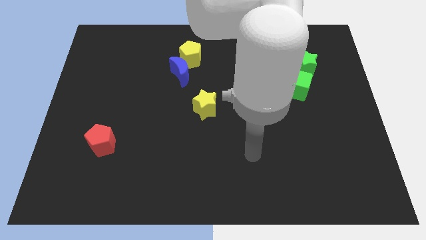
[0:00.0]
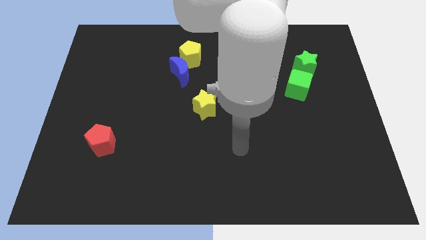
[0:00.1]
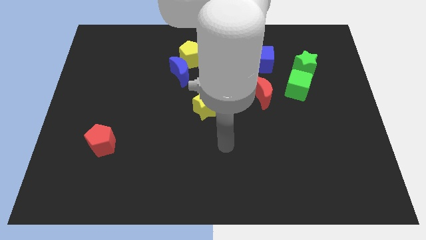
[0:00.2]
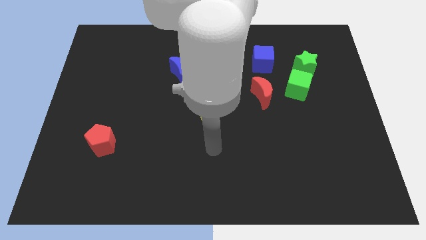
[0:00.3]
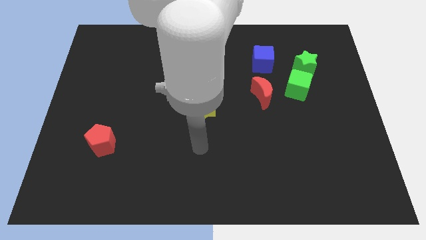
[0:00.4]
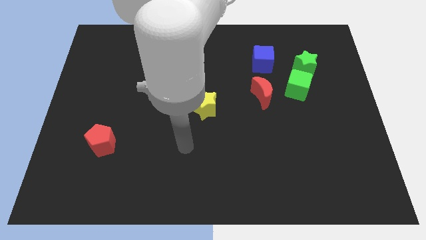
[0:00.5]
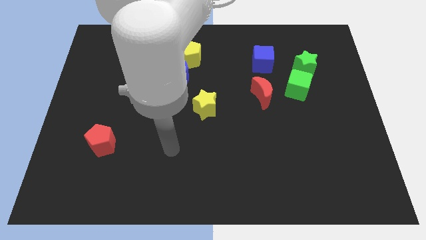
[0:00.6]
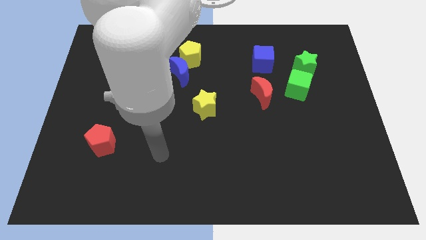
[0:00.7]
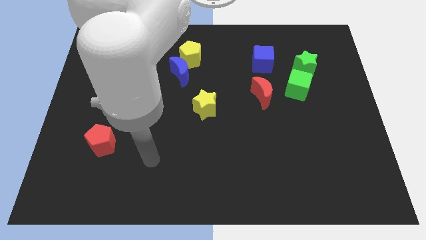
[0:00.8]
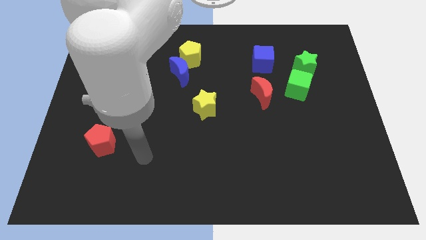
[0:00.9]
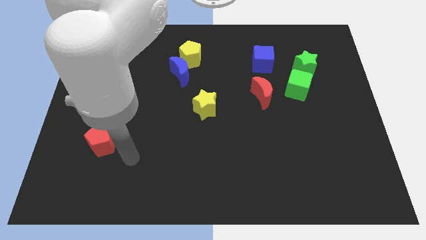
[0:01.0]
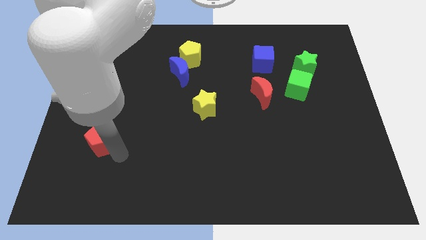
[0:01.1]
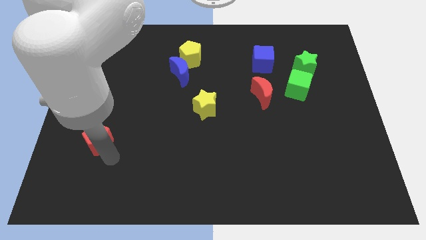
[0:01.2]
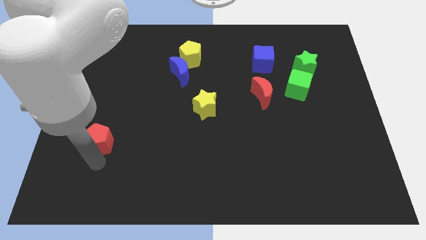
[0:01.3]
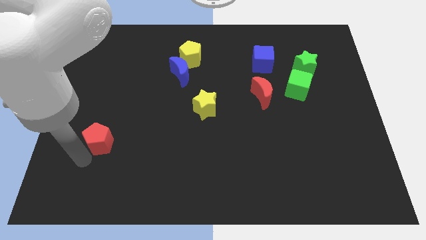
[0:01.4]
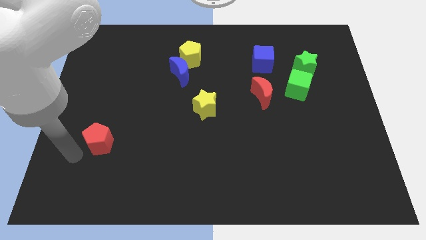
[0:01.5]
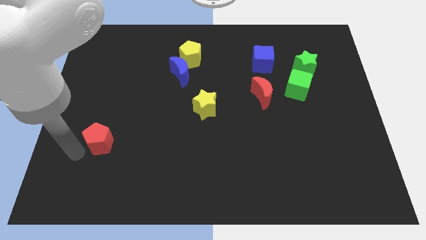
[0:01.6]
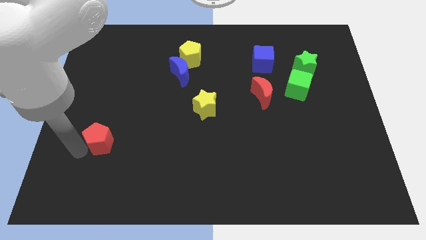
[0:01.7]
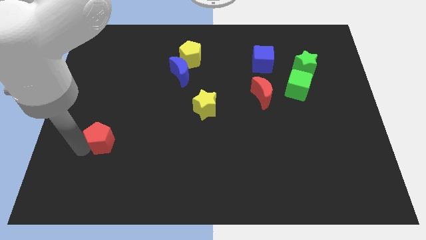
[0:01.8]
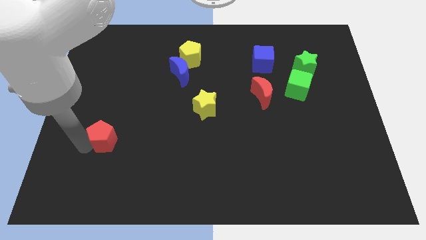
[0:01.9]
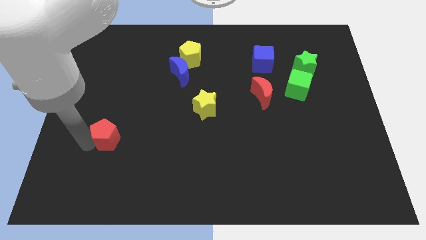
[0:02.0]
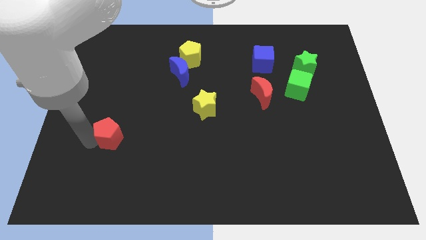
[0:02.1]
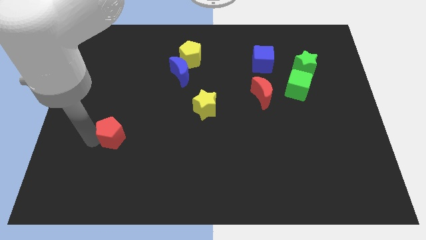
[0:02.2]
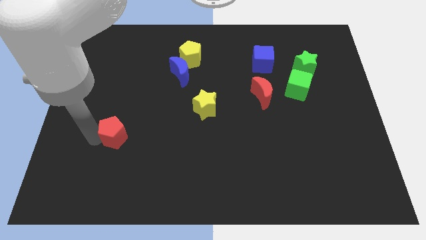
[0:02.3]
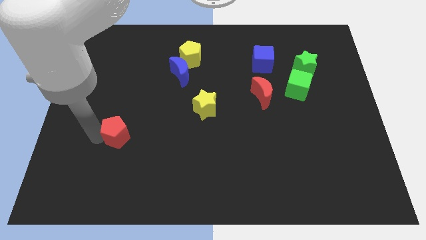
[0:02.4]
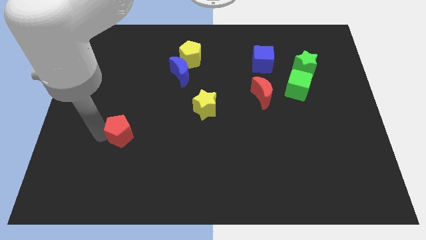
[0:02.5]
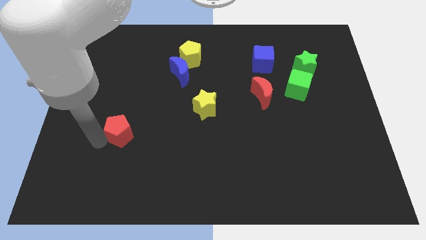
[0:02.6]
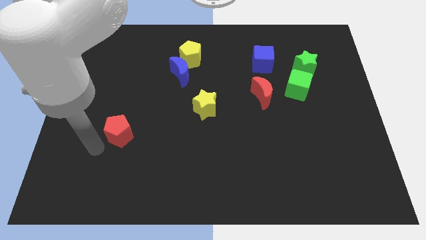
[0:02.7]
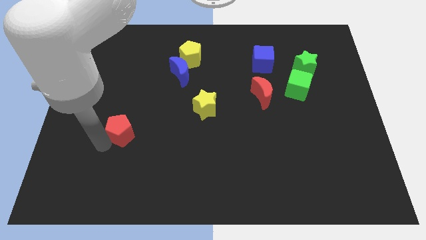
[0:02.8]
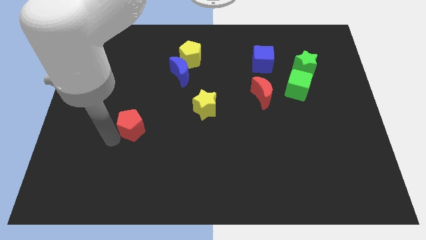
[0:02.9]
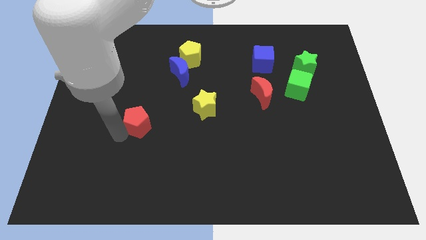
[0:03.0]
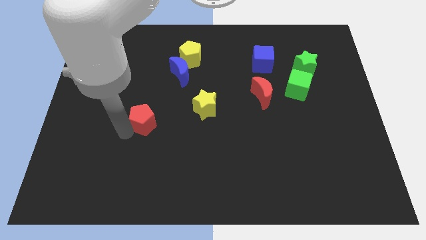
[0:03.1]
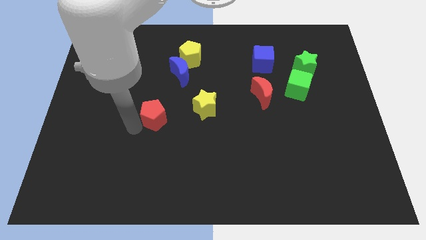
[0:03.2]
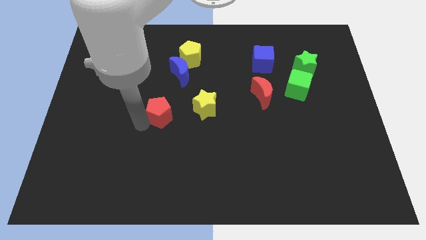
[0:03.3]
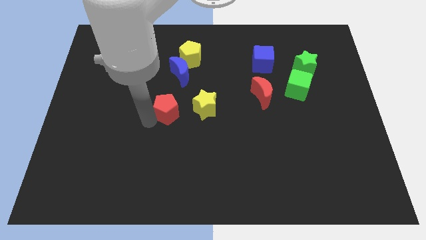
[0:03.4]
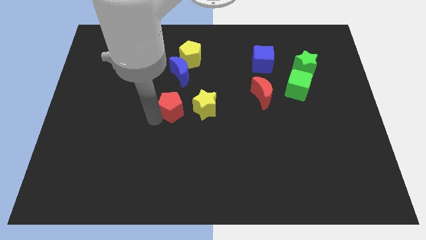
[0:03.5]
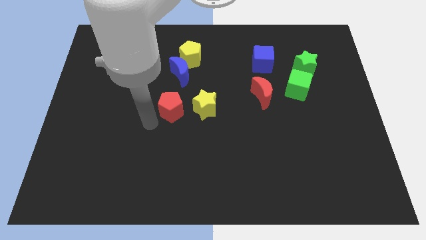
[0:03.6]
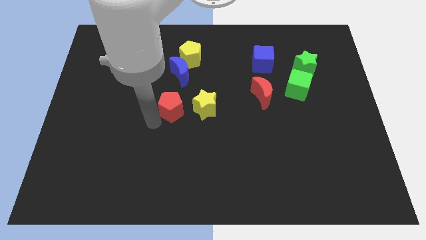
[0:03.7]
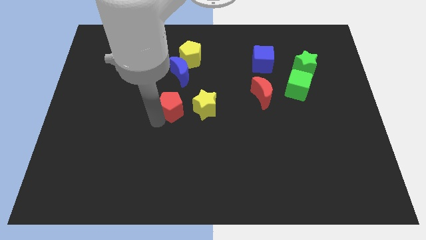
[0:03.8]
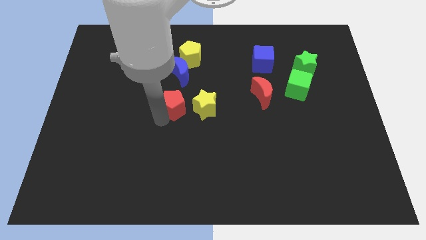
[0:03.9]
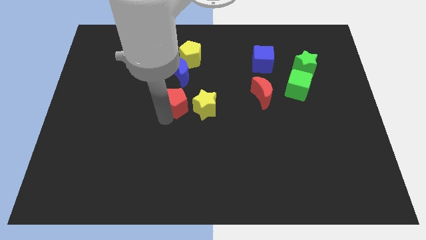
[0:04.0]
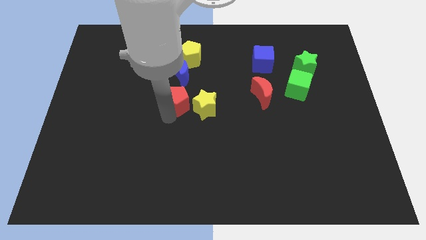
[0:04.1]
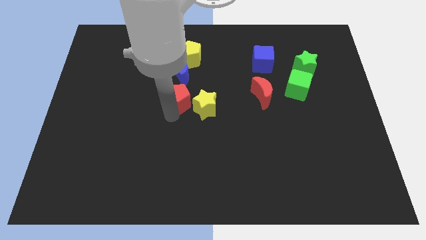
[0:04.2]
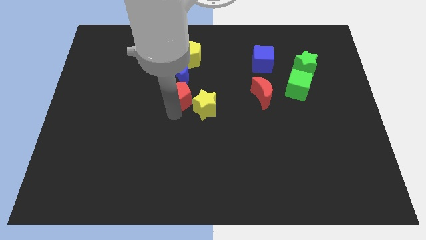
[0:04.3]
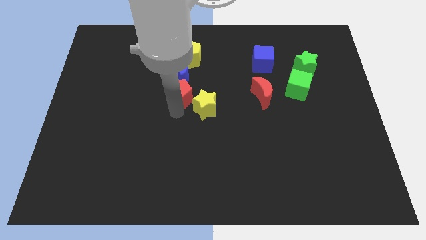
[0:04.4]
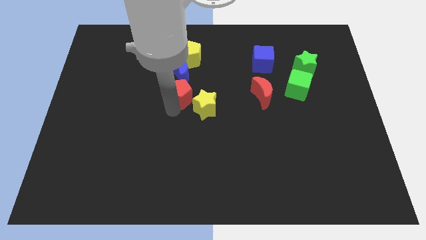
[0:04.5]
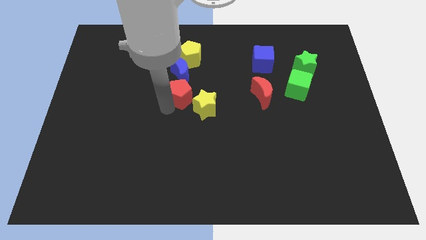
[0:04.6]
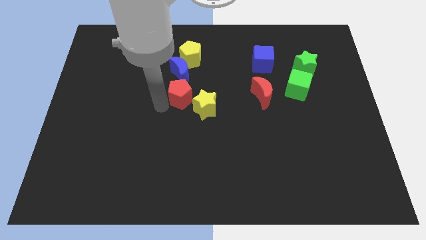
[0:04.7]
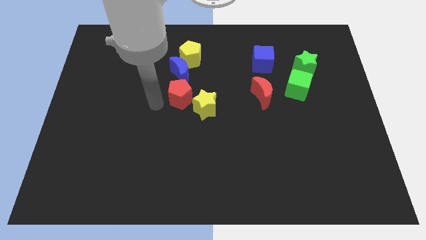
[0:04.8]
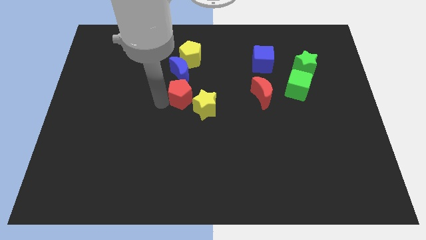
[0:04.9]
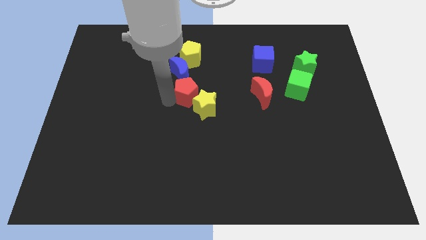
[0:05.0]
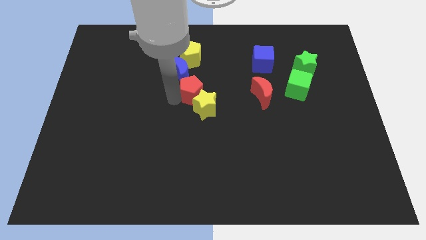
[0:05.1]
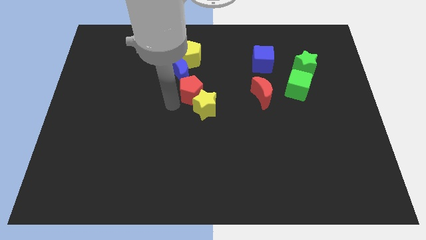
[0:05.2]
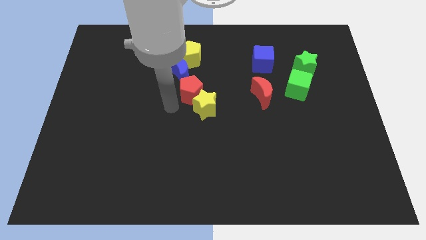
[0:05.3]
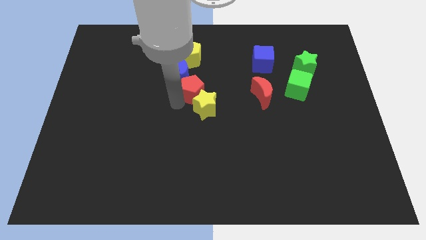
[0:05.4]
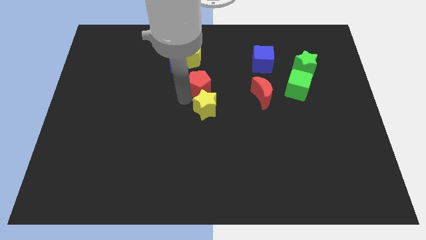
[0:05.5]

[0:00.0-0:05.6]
put the red pentagon just right of the blue moon

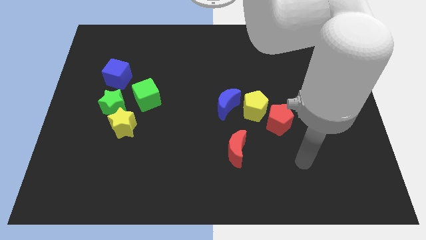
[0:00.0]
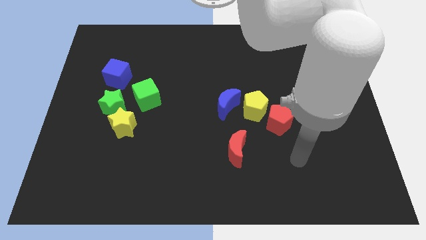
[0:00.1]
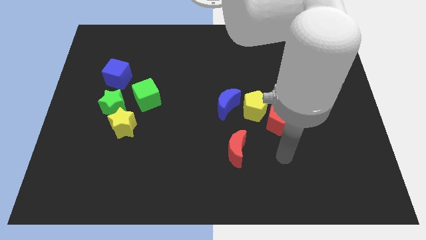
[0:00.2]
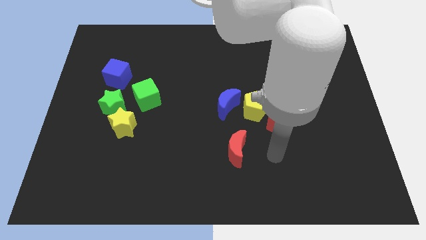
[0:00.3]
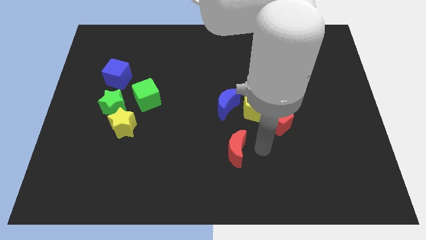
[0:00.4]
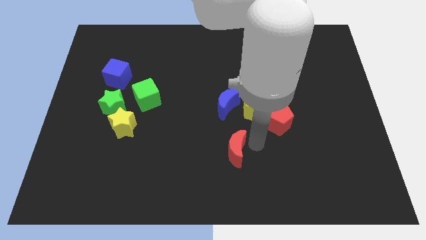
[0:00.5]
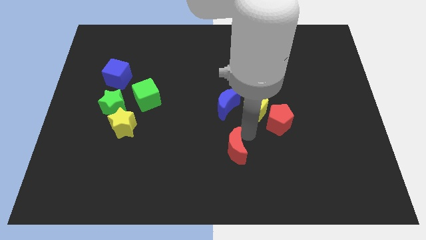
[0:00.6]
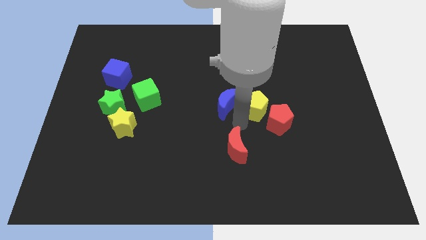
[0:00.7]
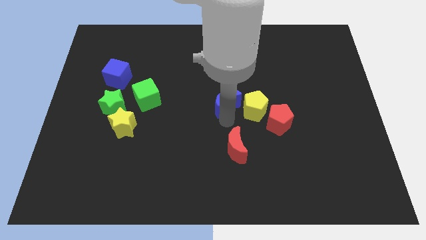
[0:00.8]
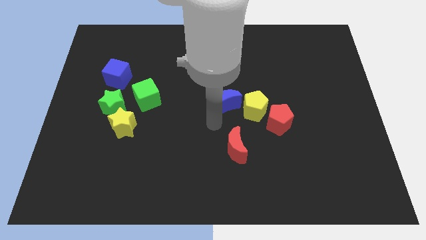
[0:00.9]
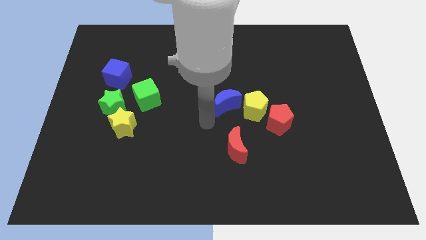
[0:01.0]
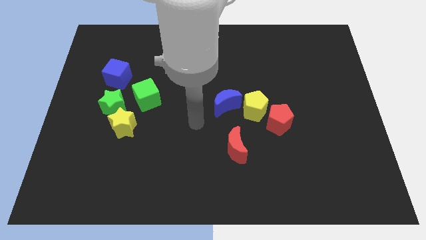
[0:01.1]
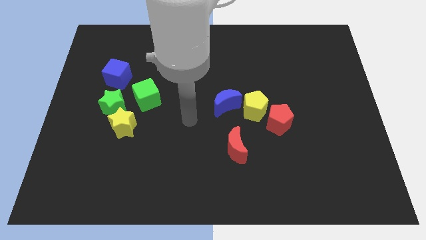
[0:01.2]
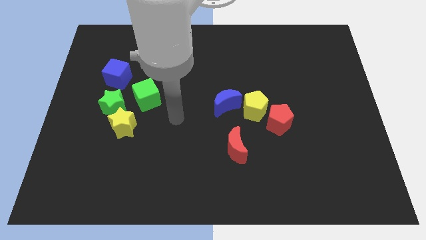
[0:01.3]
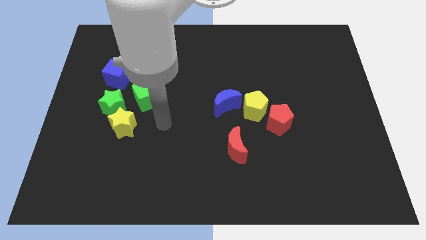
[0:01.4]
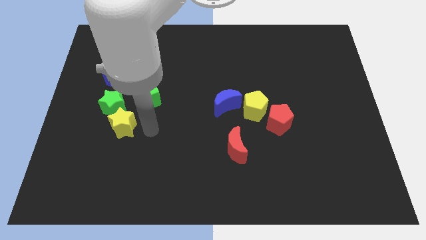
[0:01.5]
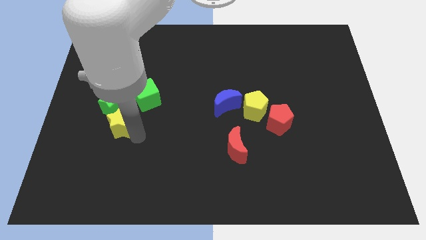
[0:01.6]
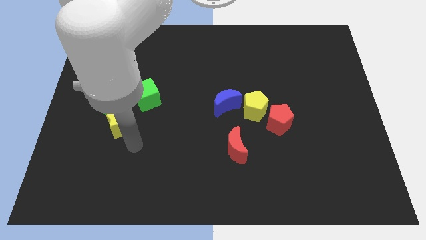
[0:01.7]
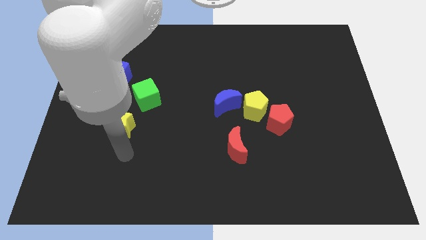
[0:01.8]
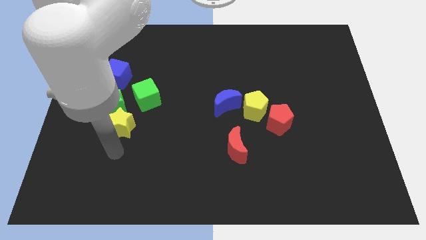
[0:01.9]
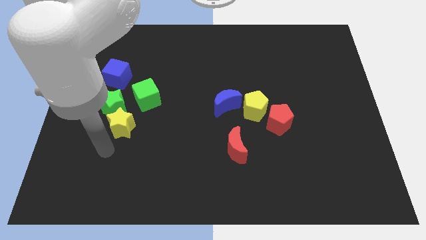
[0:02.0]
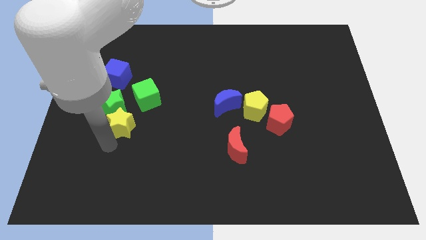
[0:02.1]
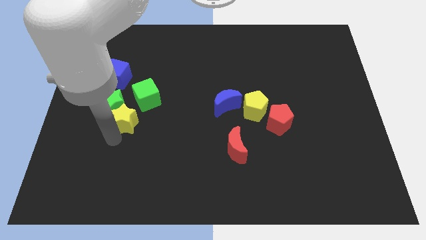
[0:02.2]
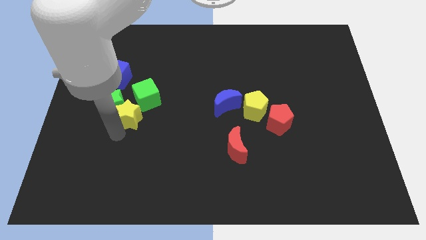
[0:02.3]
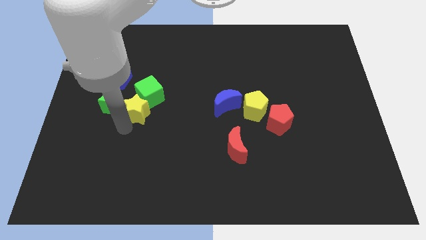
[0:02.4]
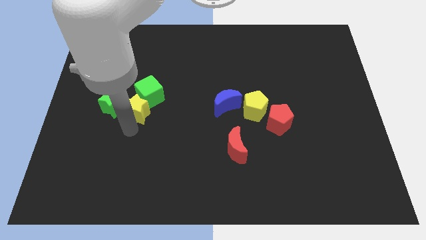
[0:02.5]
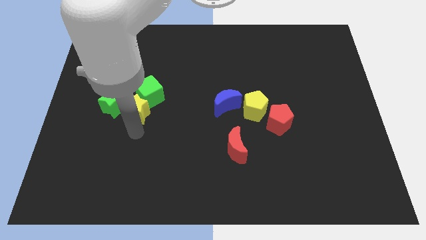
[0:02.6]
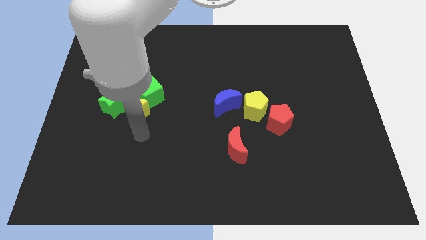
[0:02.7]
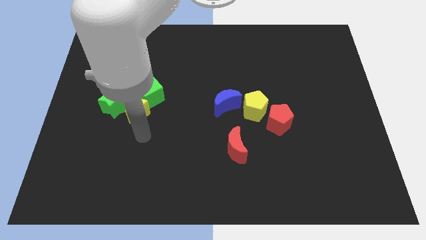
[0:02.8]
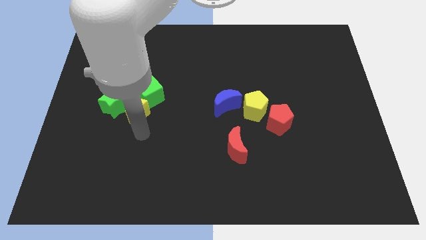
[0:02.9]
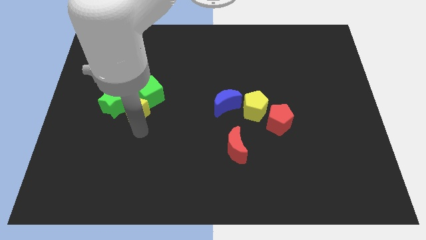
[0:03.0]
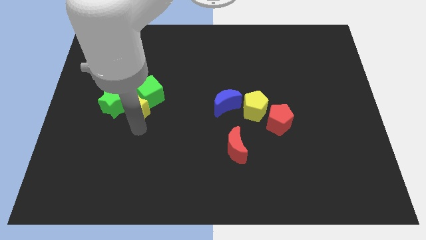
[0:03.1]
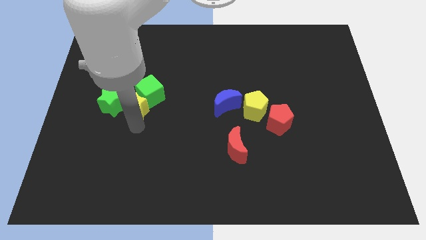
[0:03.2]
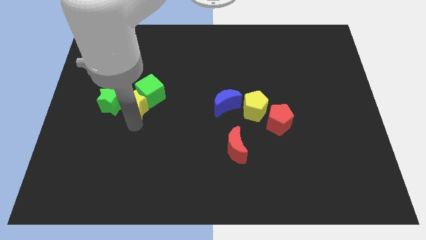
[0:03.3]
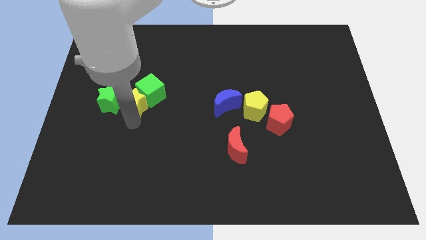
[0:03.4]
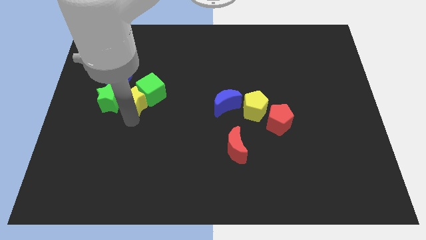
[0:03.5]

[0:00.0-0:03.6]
move the yellow star diagonally up and to the right of the green star
